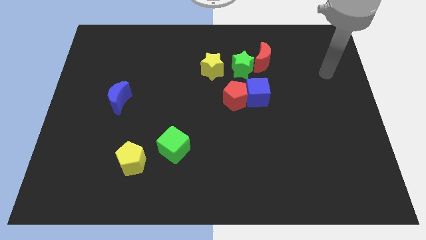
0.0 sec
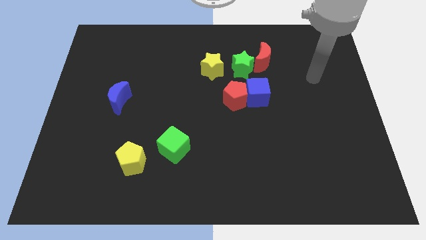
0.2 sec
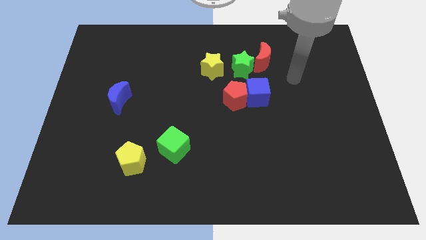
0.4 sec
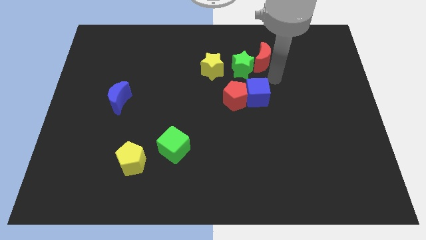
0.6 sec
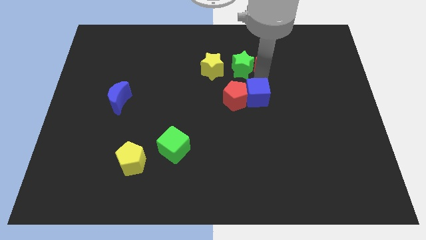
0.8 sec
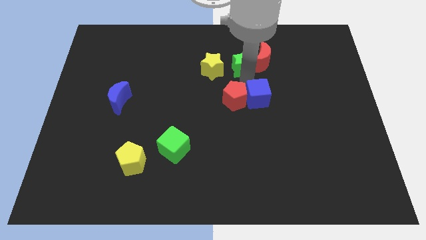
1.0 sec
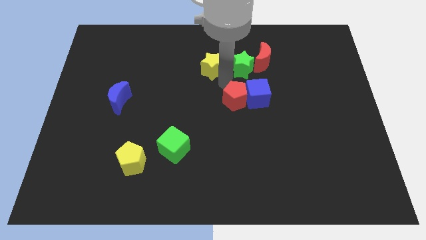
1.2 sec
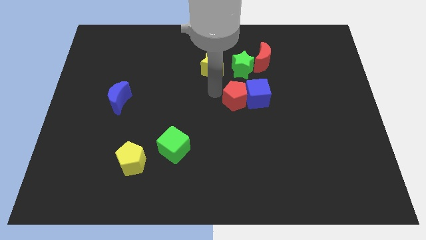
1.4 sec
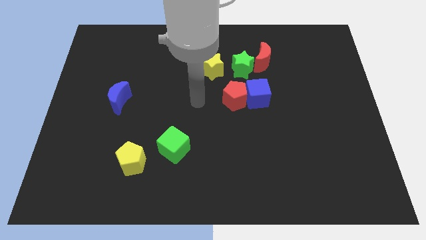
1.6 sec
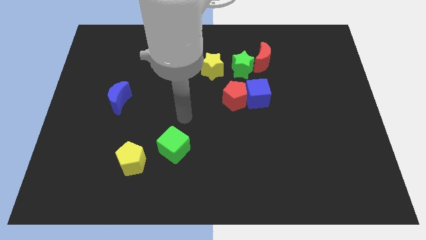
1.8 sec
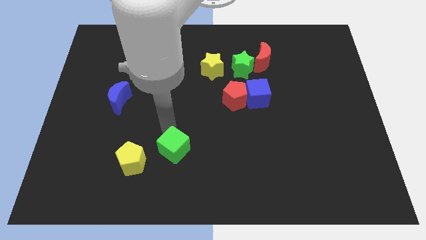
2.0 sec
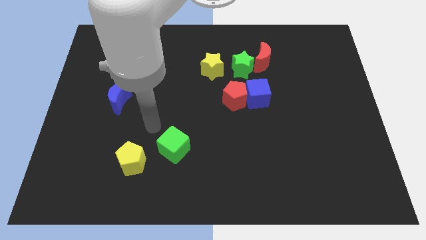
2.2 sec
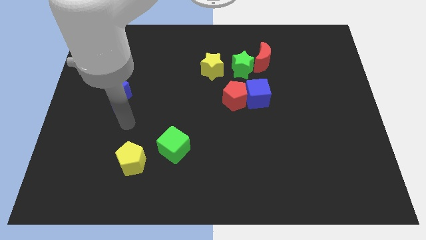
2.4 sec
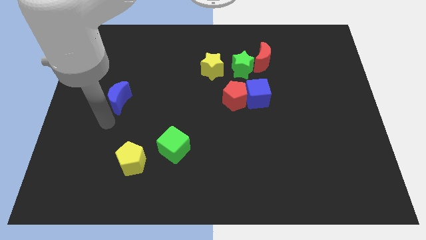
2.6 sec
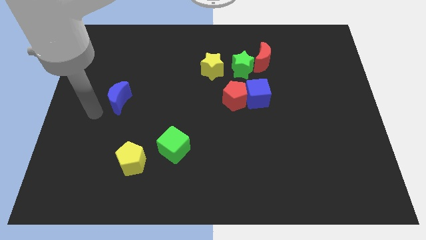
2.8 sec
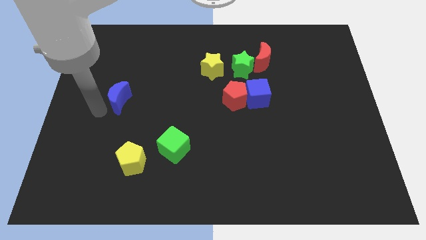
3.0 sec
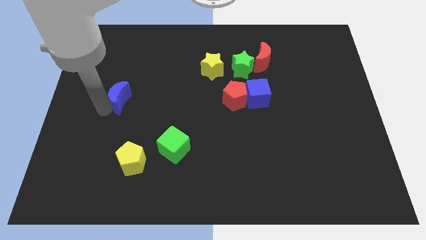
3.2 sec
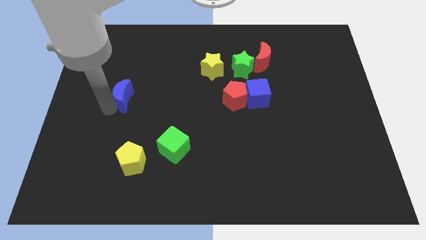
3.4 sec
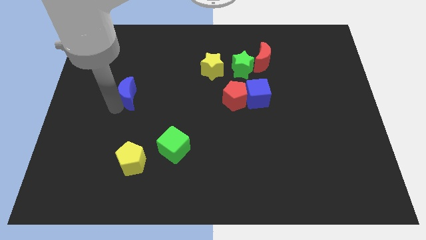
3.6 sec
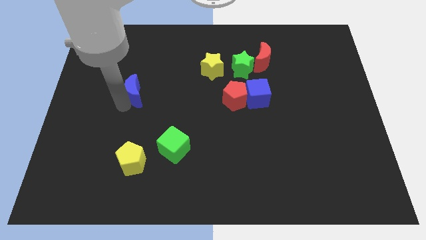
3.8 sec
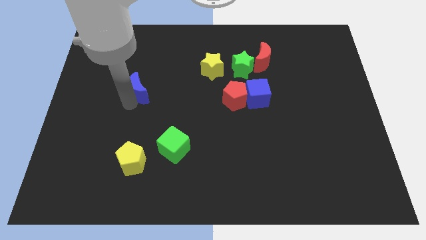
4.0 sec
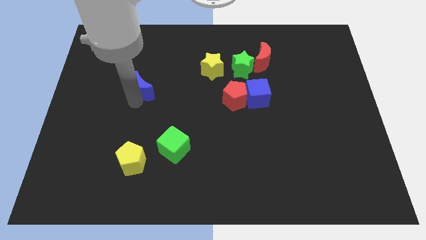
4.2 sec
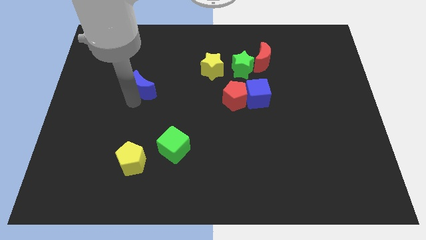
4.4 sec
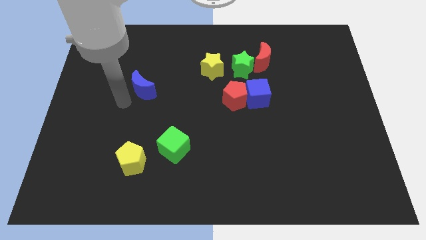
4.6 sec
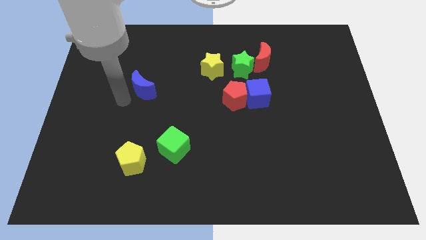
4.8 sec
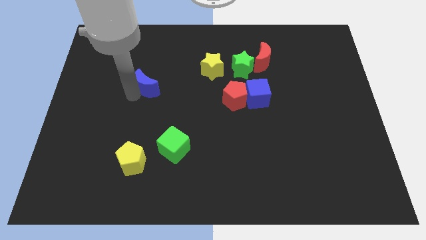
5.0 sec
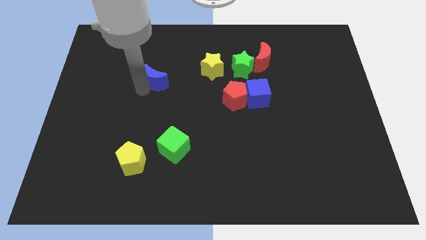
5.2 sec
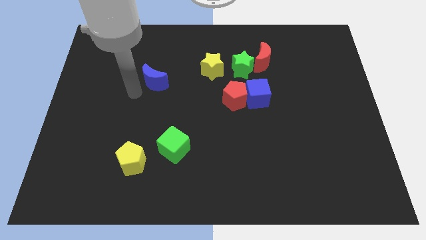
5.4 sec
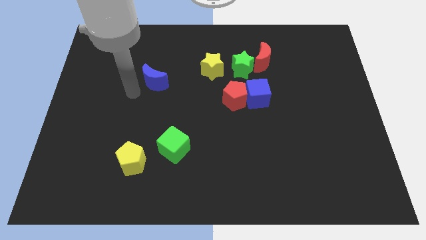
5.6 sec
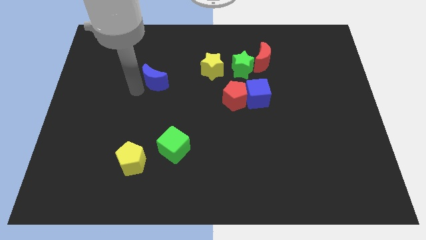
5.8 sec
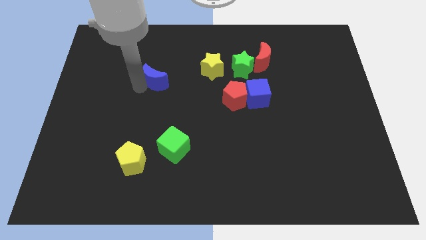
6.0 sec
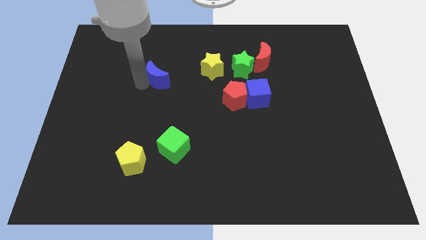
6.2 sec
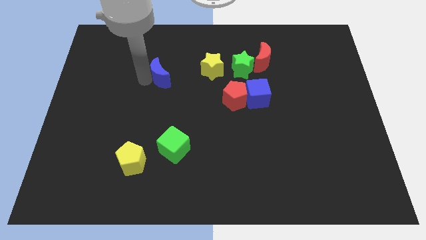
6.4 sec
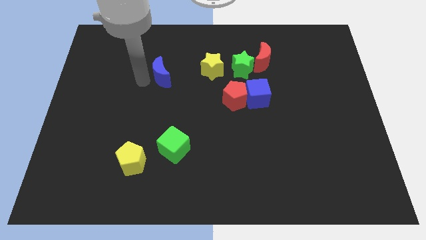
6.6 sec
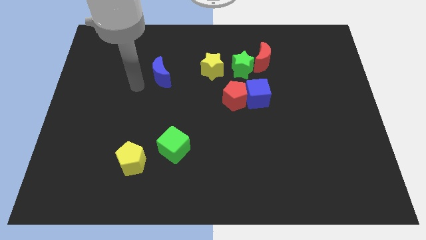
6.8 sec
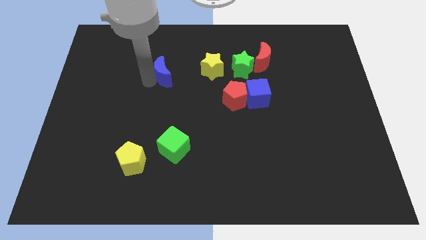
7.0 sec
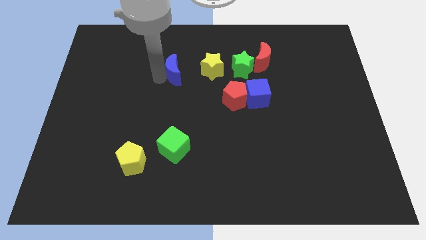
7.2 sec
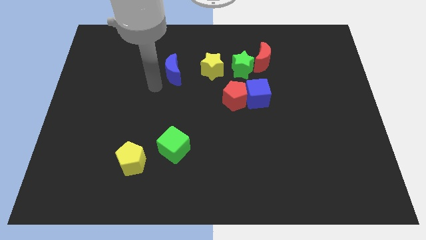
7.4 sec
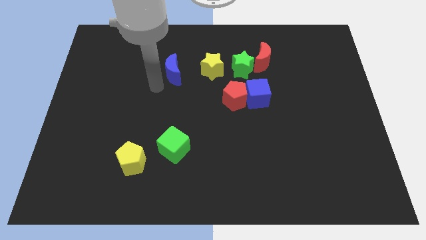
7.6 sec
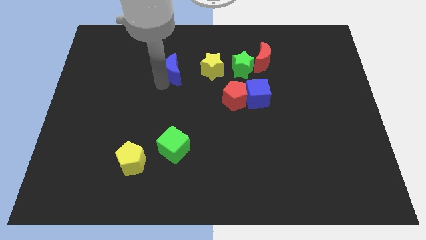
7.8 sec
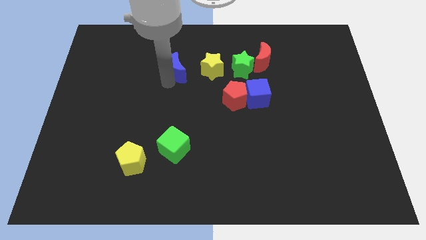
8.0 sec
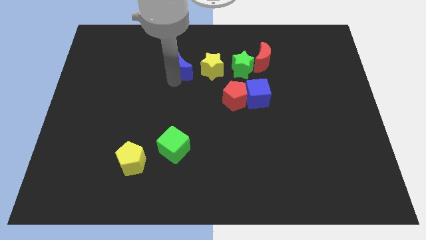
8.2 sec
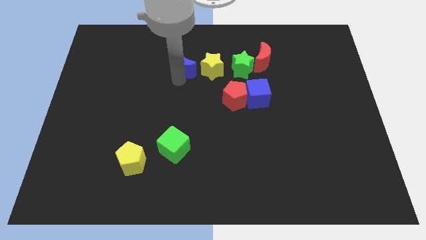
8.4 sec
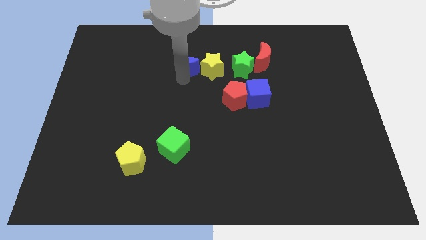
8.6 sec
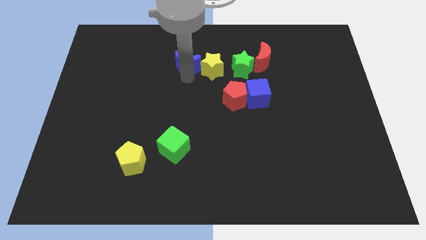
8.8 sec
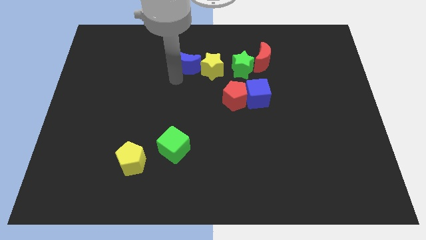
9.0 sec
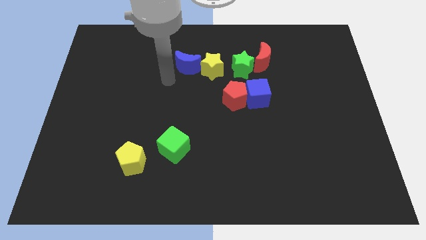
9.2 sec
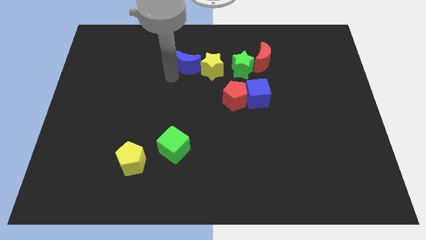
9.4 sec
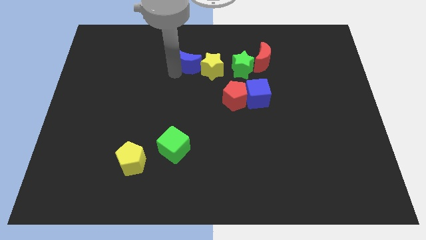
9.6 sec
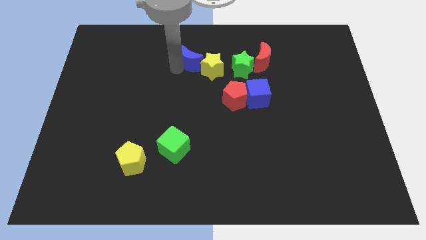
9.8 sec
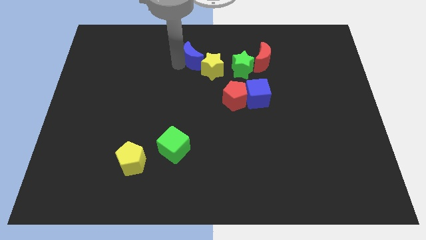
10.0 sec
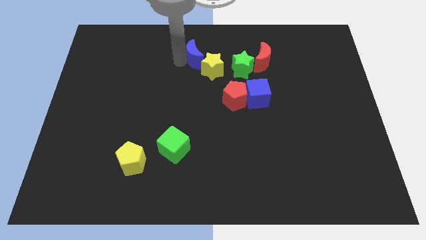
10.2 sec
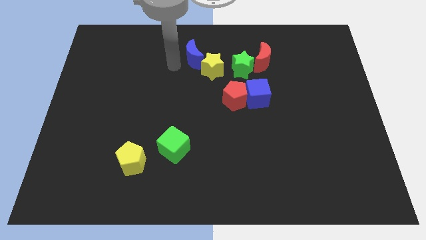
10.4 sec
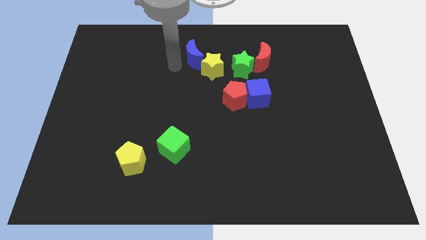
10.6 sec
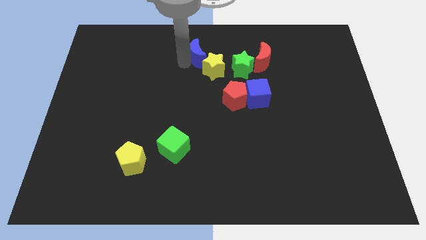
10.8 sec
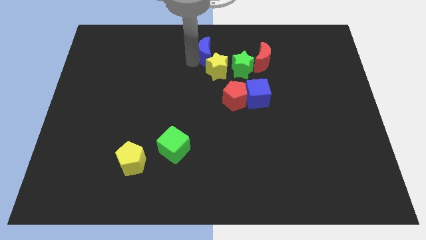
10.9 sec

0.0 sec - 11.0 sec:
move the blue moon to the top

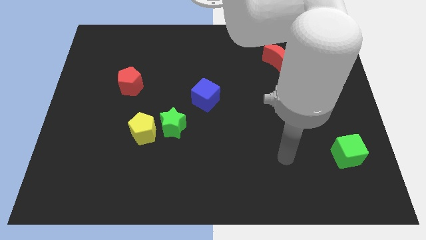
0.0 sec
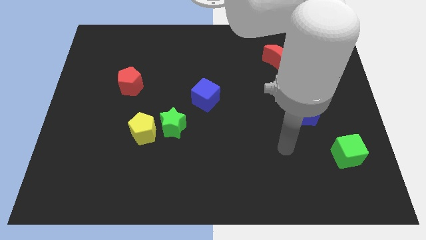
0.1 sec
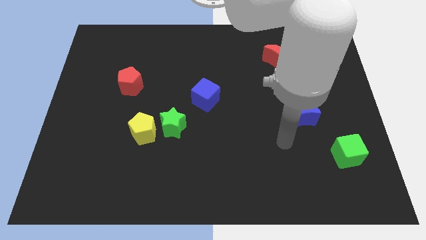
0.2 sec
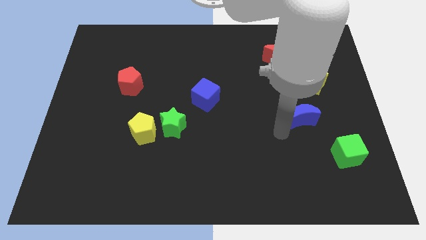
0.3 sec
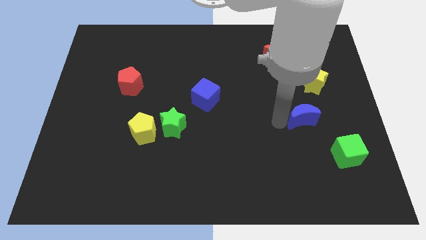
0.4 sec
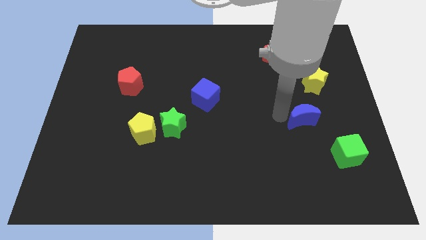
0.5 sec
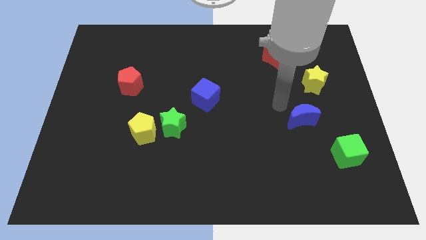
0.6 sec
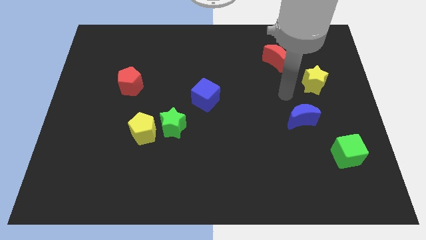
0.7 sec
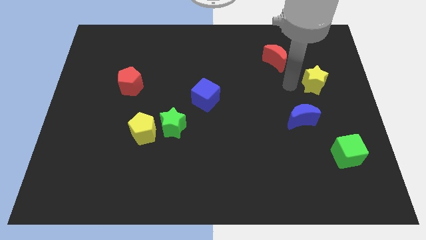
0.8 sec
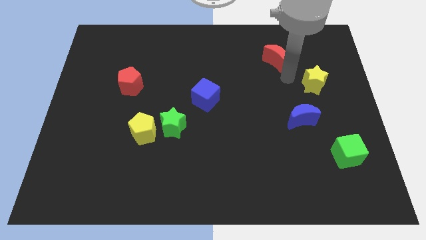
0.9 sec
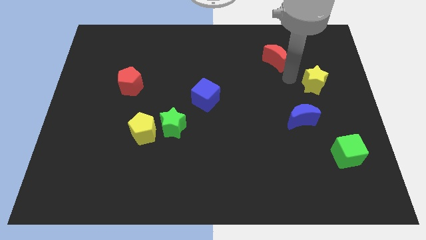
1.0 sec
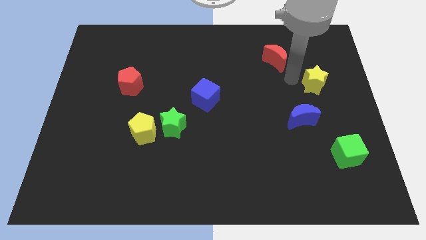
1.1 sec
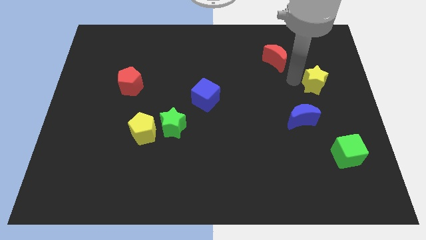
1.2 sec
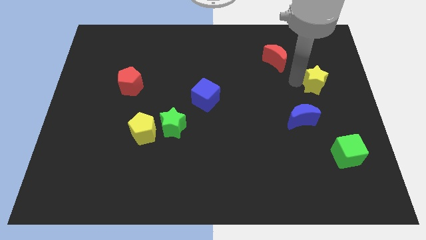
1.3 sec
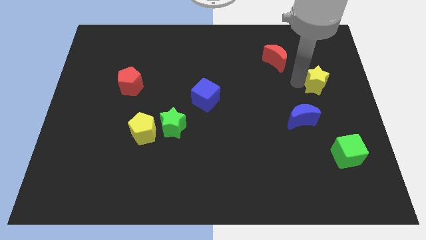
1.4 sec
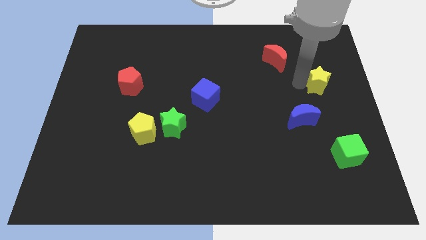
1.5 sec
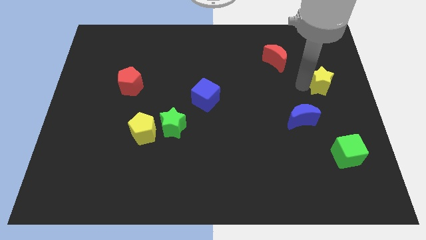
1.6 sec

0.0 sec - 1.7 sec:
push the yellow star to the right side

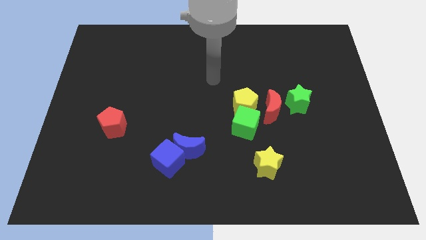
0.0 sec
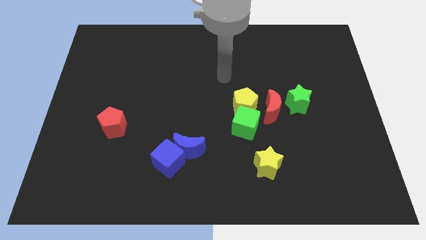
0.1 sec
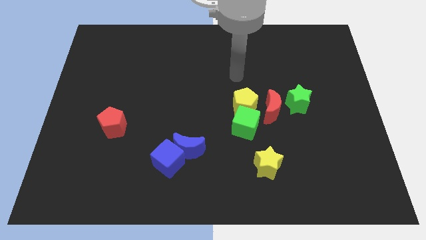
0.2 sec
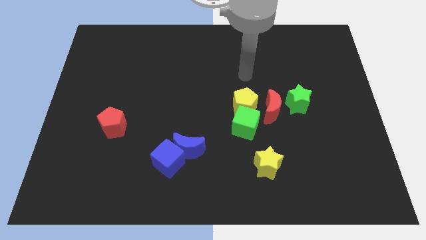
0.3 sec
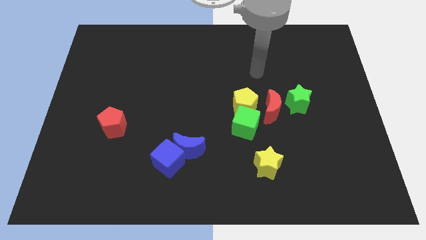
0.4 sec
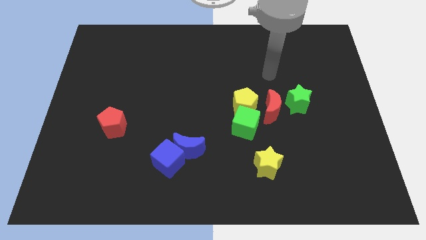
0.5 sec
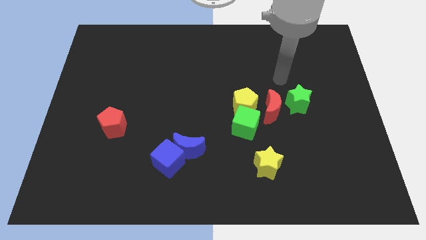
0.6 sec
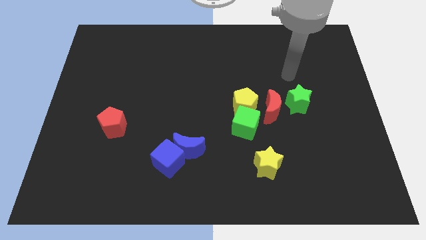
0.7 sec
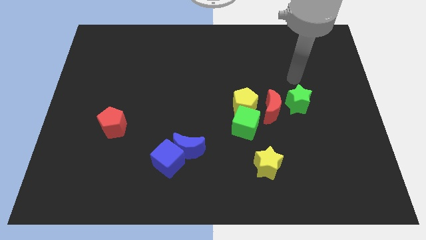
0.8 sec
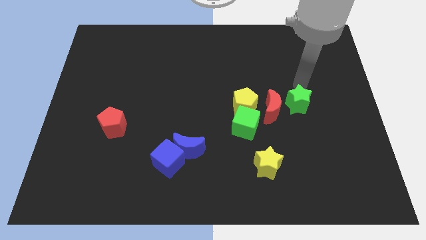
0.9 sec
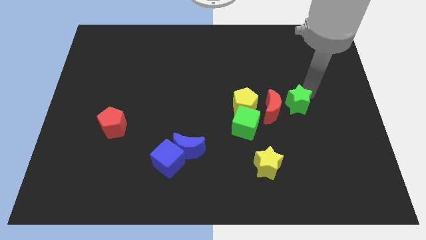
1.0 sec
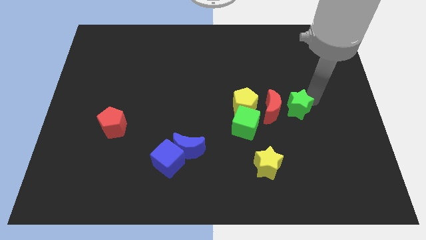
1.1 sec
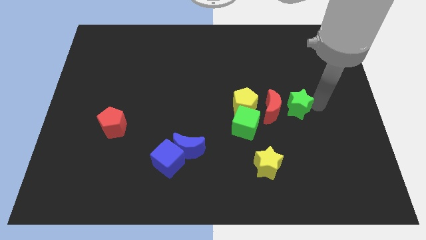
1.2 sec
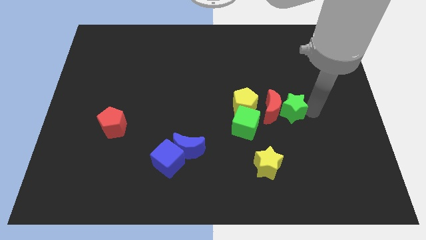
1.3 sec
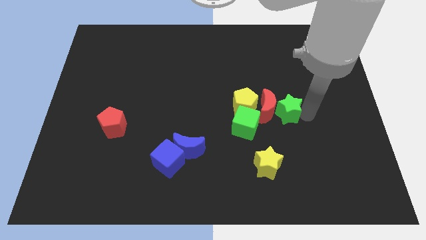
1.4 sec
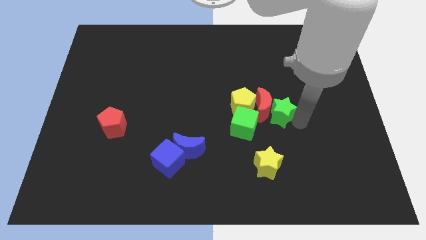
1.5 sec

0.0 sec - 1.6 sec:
move the red moon to the center
